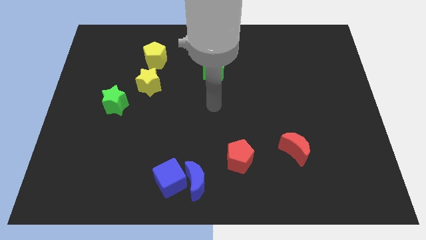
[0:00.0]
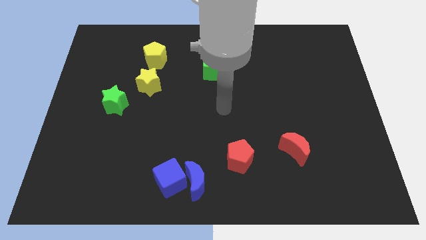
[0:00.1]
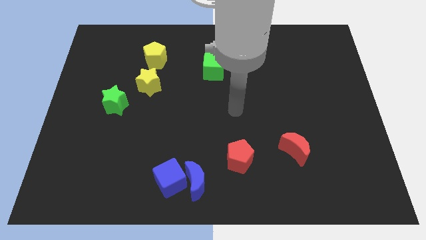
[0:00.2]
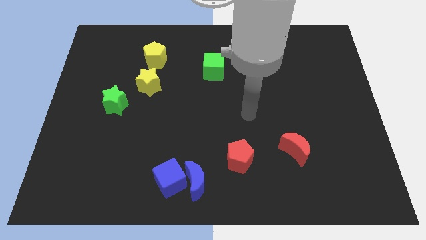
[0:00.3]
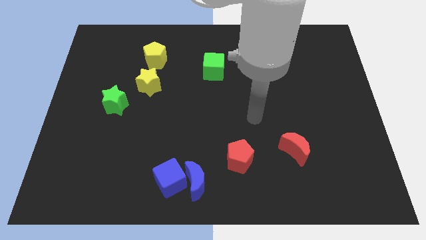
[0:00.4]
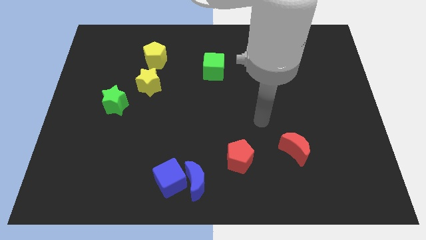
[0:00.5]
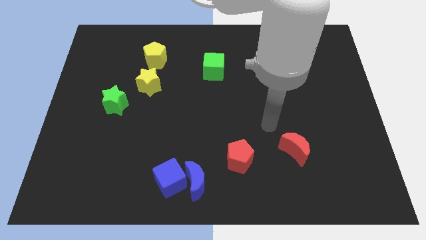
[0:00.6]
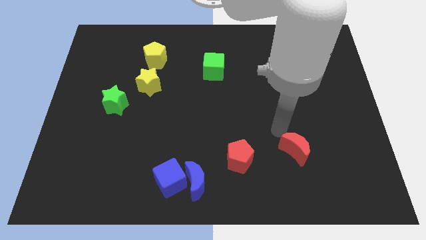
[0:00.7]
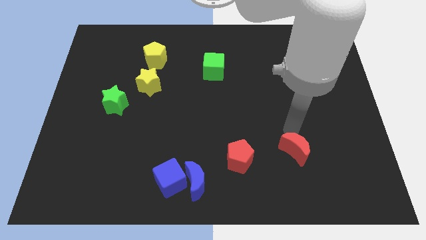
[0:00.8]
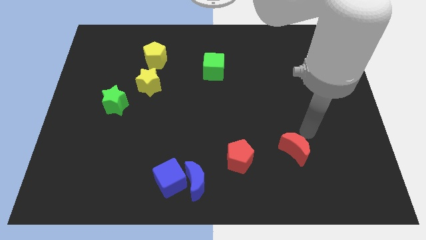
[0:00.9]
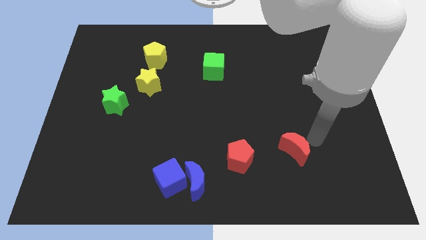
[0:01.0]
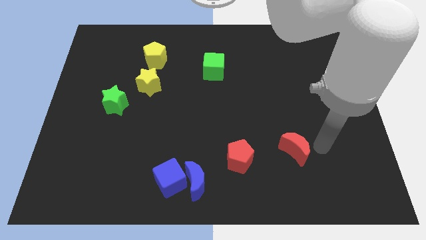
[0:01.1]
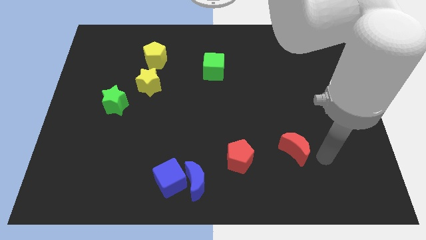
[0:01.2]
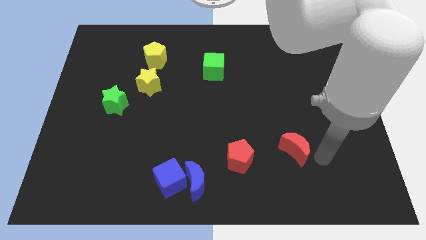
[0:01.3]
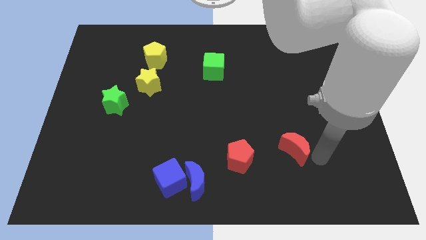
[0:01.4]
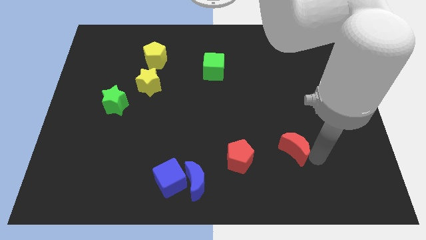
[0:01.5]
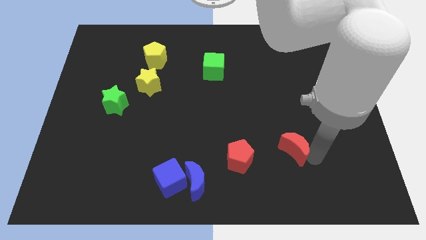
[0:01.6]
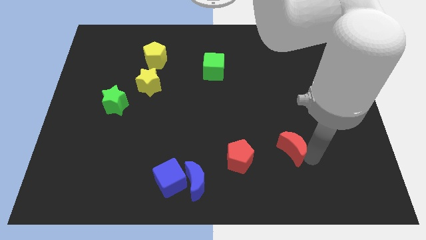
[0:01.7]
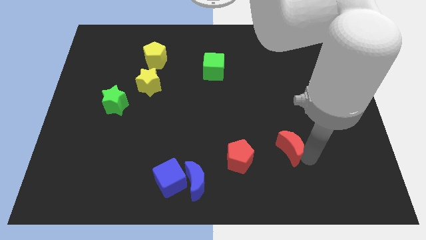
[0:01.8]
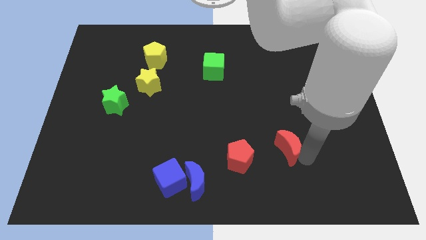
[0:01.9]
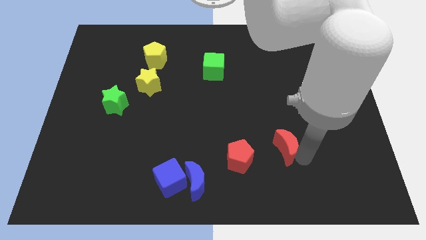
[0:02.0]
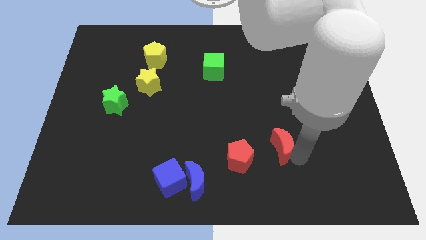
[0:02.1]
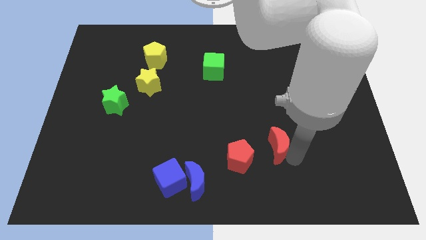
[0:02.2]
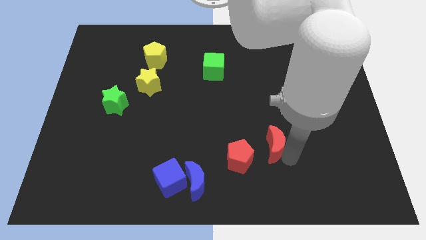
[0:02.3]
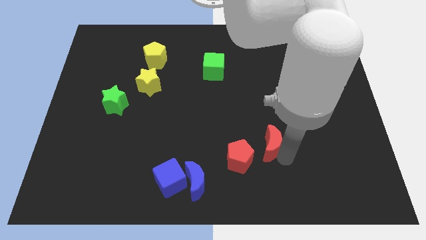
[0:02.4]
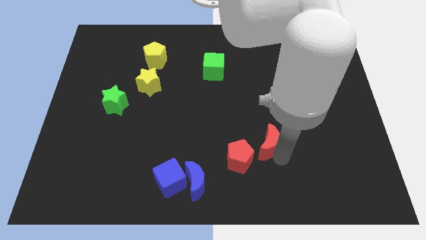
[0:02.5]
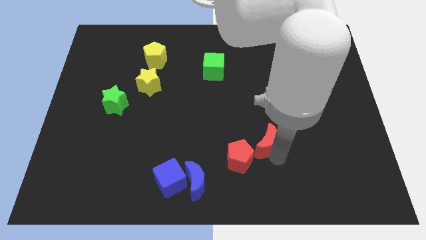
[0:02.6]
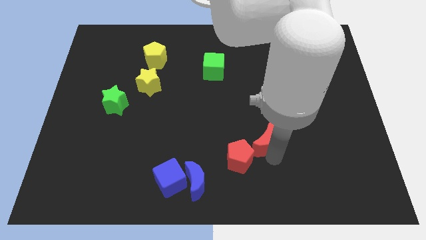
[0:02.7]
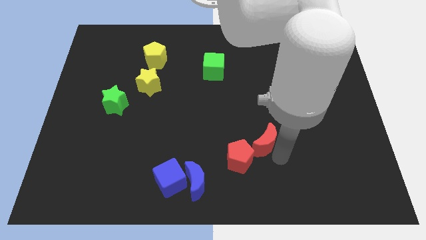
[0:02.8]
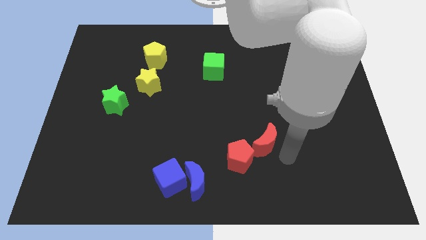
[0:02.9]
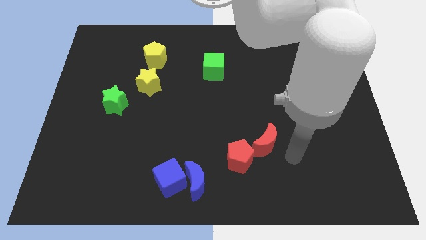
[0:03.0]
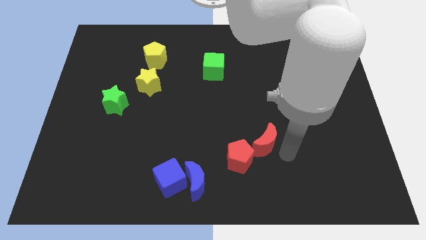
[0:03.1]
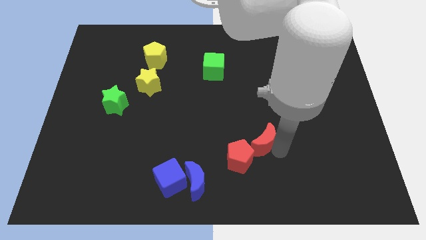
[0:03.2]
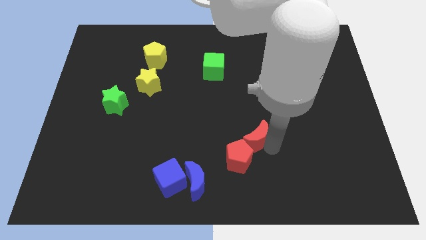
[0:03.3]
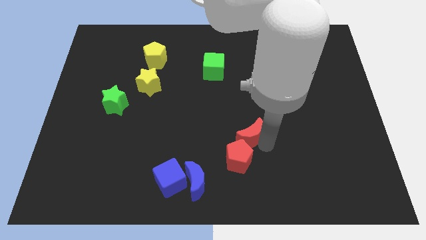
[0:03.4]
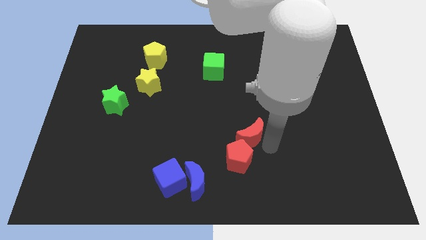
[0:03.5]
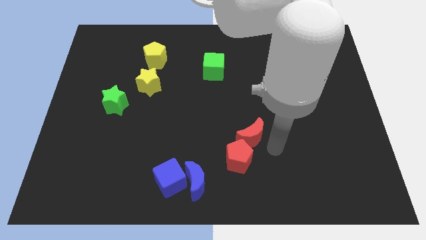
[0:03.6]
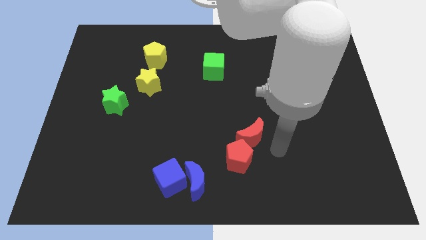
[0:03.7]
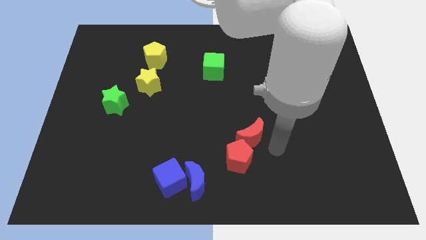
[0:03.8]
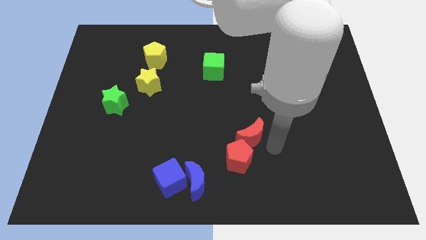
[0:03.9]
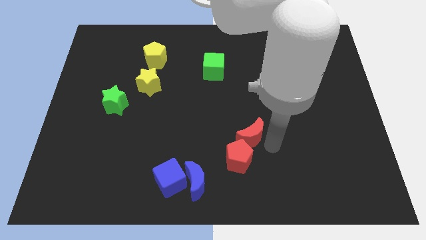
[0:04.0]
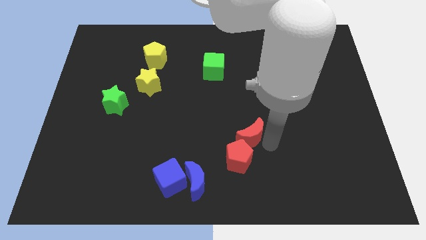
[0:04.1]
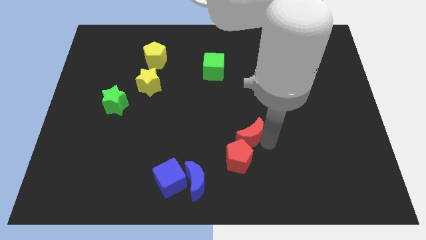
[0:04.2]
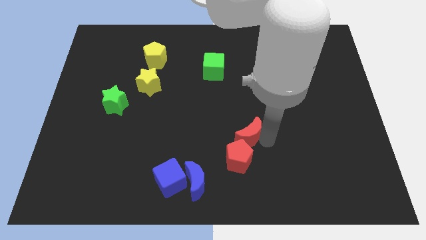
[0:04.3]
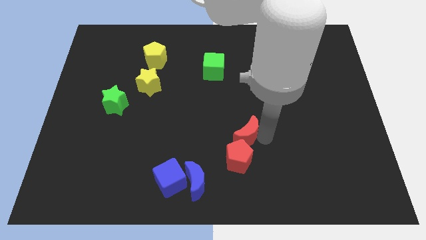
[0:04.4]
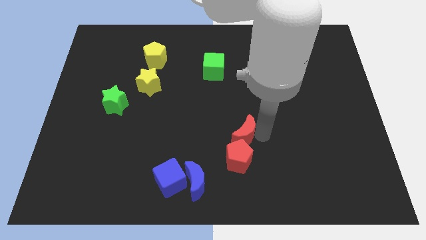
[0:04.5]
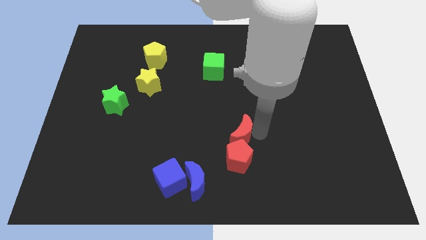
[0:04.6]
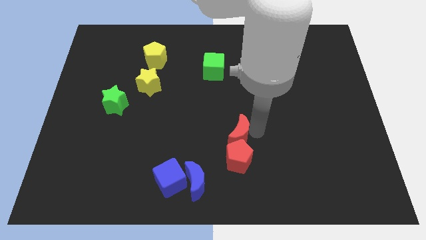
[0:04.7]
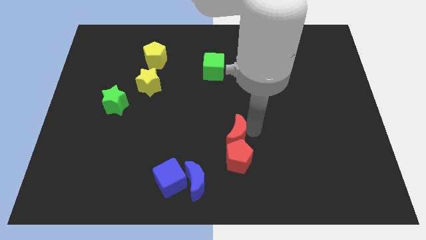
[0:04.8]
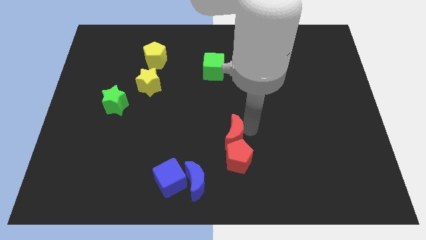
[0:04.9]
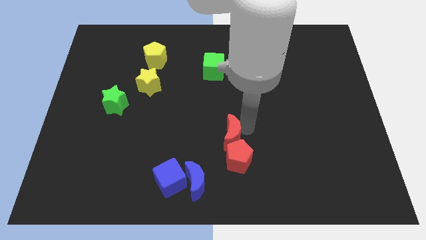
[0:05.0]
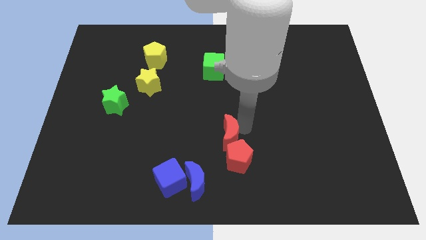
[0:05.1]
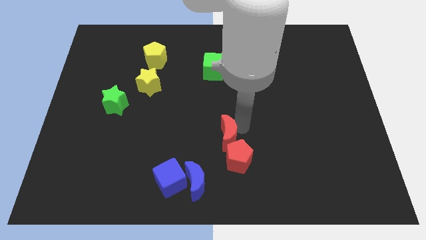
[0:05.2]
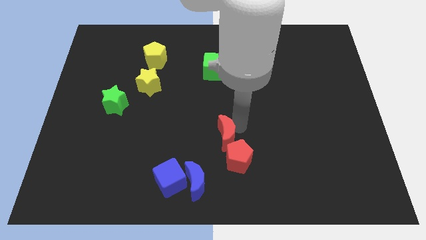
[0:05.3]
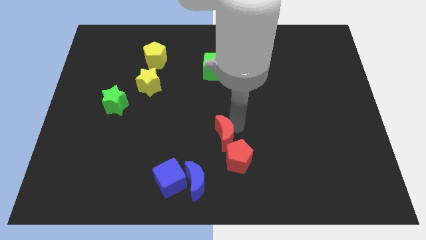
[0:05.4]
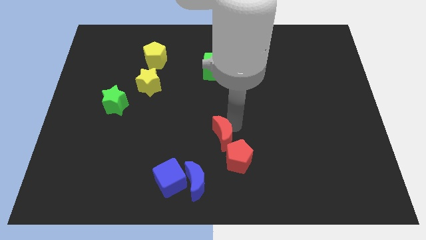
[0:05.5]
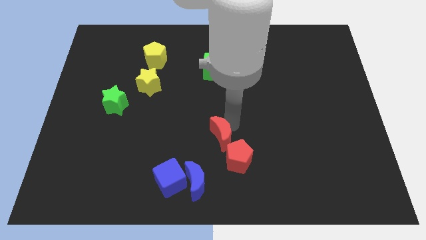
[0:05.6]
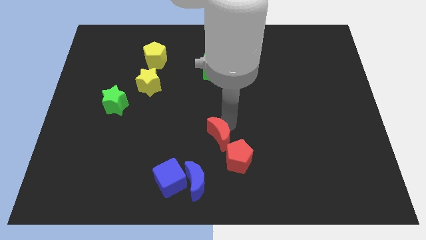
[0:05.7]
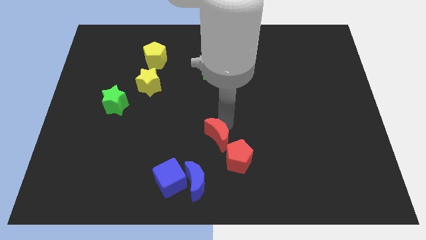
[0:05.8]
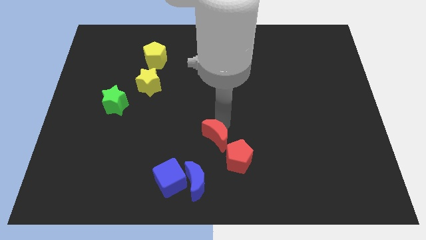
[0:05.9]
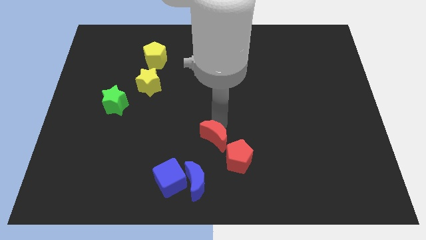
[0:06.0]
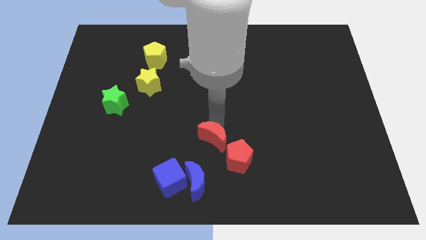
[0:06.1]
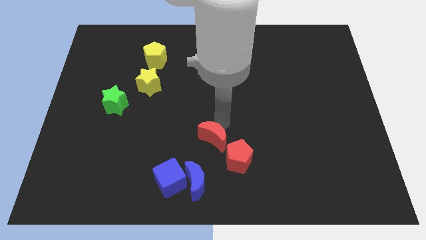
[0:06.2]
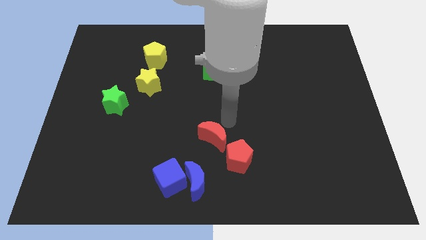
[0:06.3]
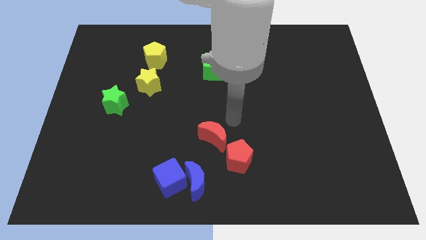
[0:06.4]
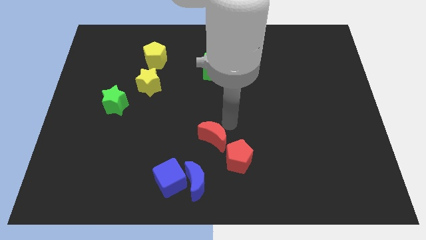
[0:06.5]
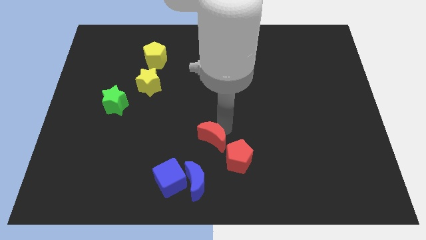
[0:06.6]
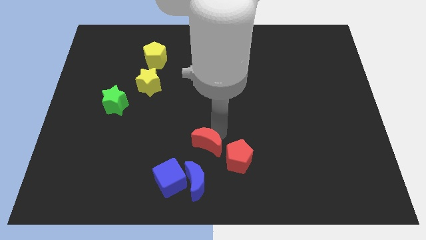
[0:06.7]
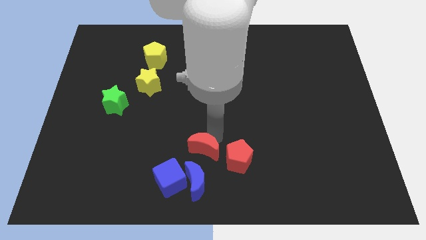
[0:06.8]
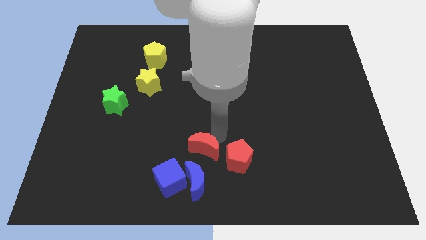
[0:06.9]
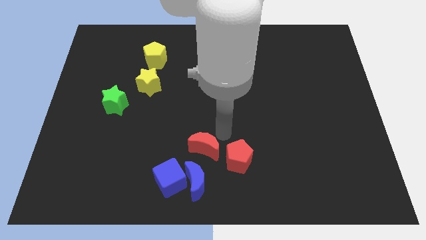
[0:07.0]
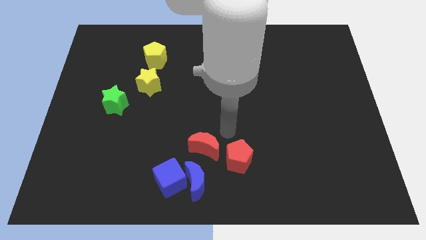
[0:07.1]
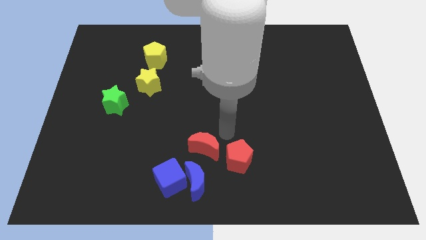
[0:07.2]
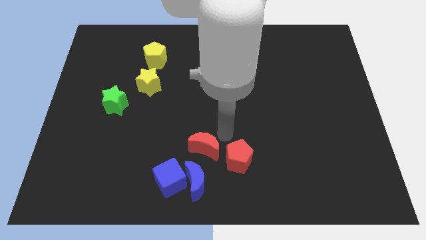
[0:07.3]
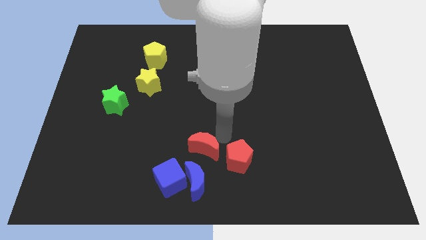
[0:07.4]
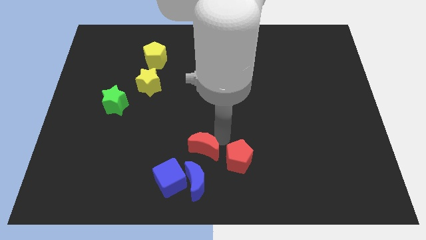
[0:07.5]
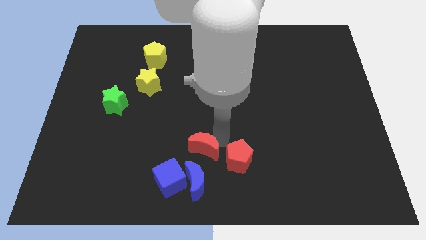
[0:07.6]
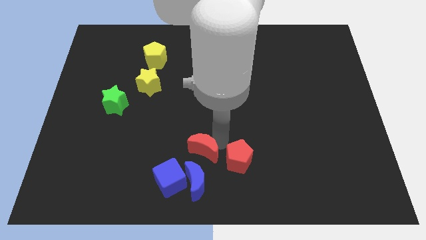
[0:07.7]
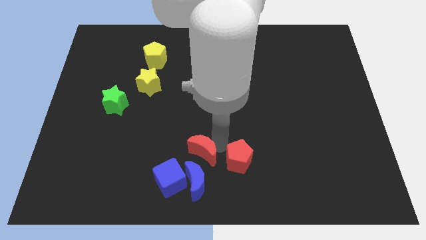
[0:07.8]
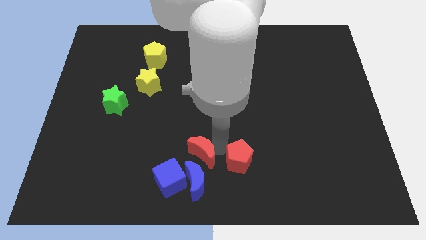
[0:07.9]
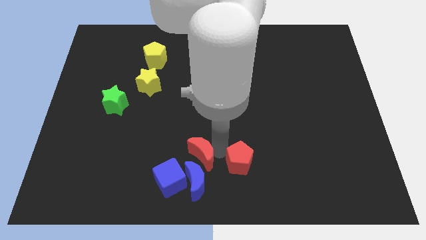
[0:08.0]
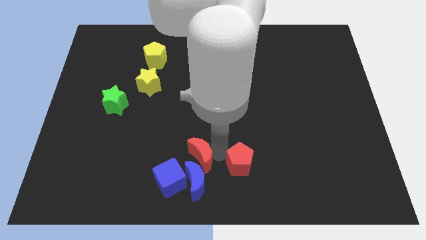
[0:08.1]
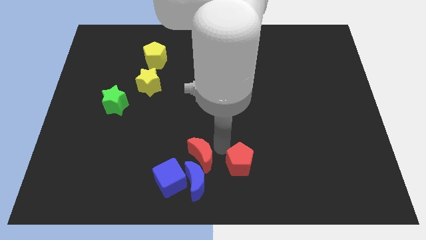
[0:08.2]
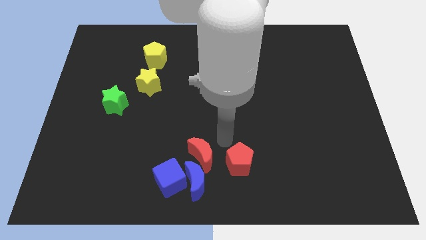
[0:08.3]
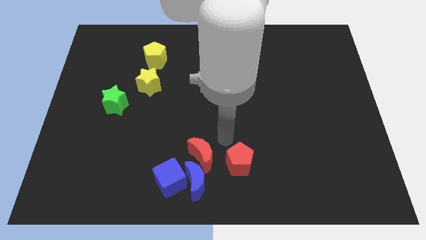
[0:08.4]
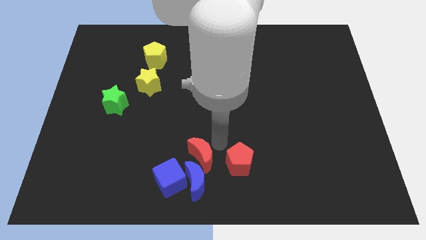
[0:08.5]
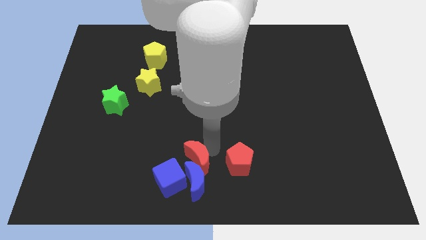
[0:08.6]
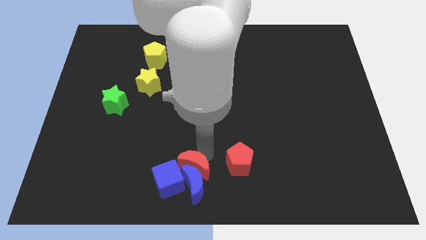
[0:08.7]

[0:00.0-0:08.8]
move the red moon to the blue cube
